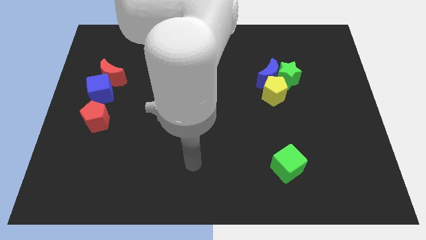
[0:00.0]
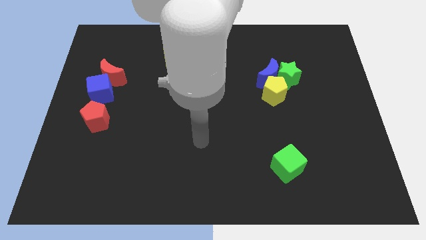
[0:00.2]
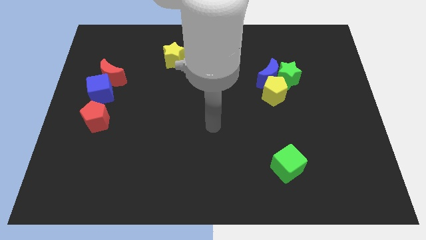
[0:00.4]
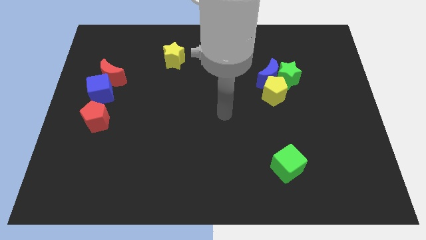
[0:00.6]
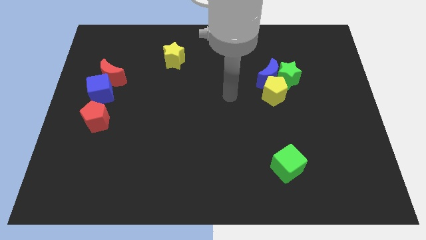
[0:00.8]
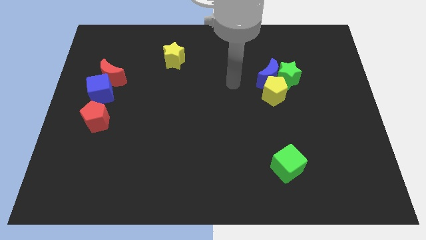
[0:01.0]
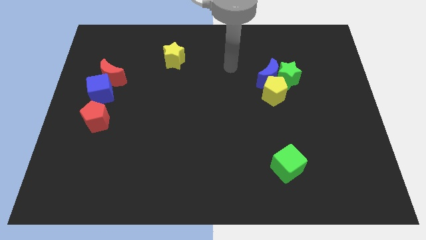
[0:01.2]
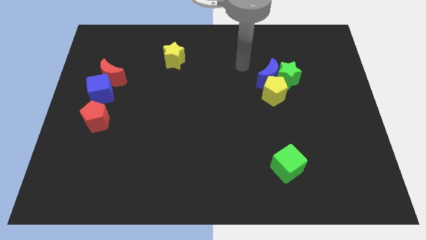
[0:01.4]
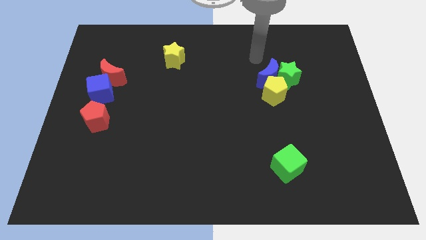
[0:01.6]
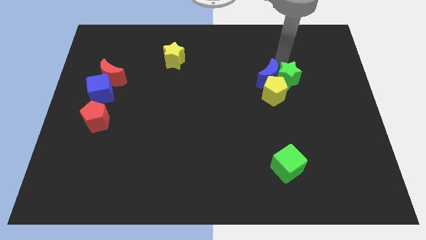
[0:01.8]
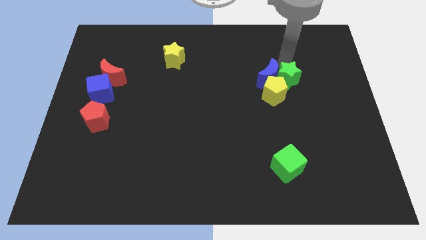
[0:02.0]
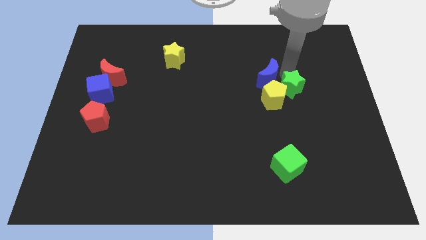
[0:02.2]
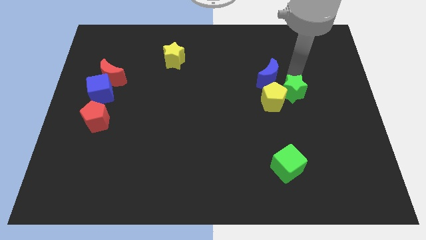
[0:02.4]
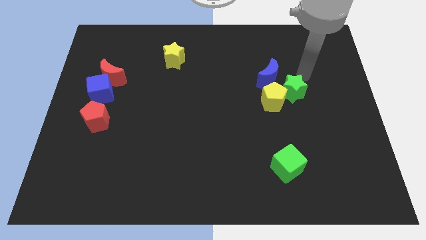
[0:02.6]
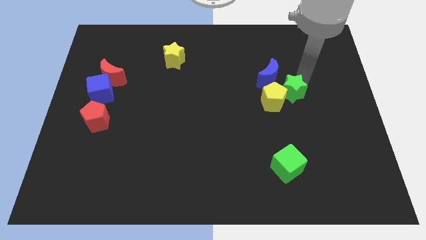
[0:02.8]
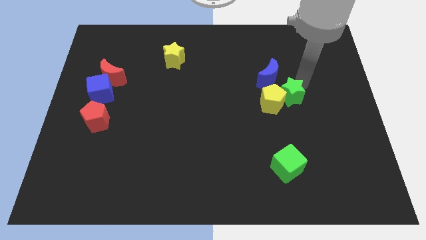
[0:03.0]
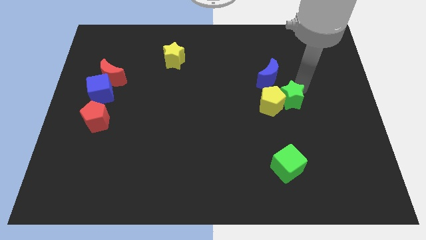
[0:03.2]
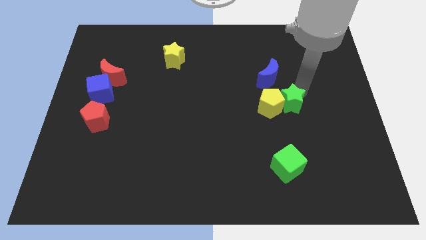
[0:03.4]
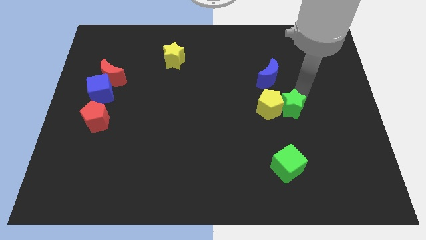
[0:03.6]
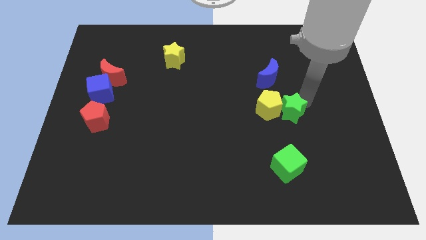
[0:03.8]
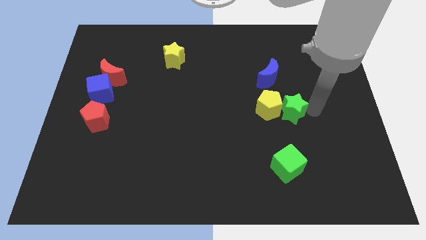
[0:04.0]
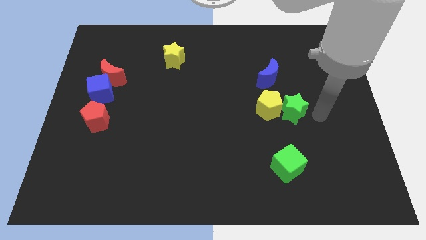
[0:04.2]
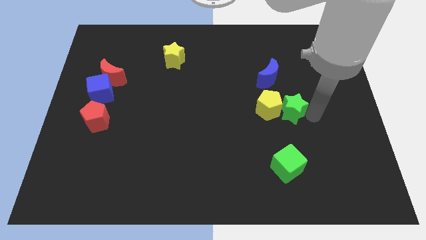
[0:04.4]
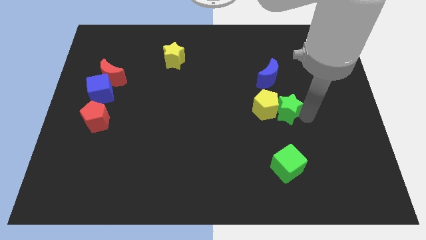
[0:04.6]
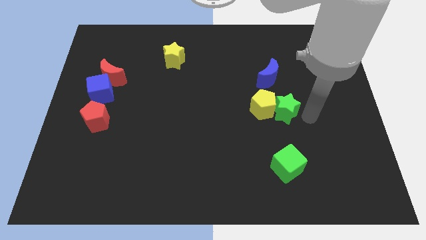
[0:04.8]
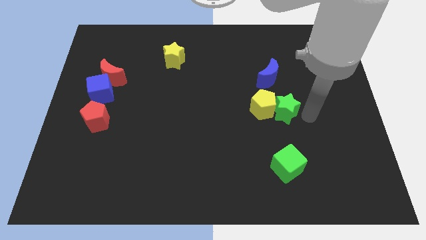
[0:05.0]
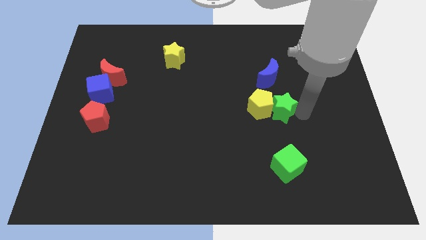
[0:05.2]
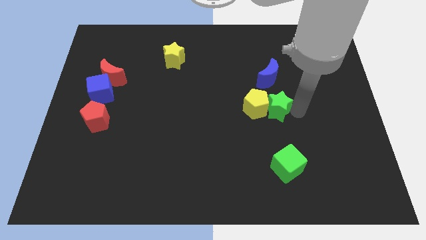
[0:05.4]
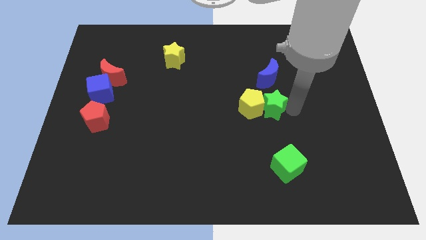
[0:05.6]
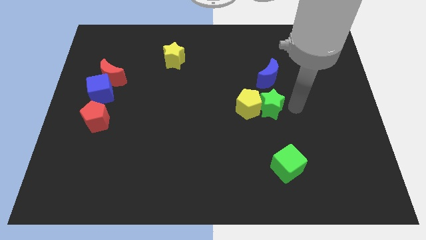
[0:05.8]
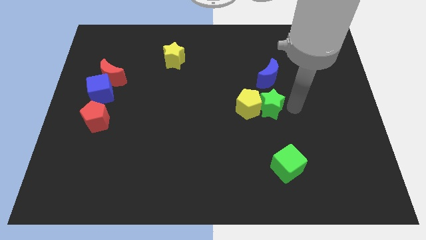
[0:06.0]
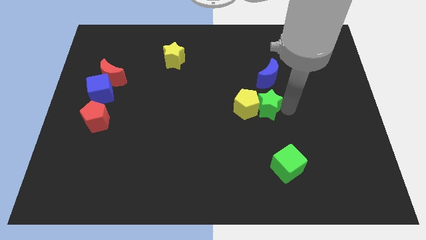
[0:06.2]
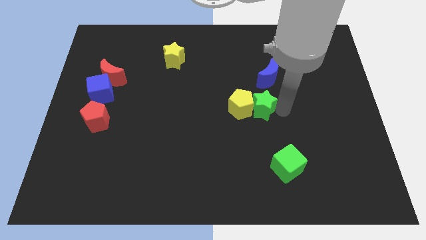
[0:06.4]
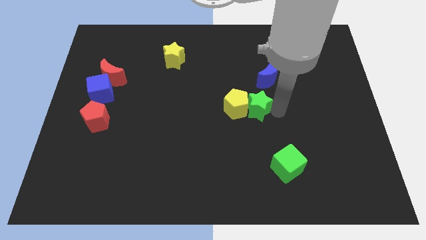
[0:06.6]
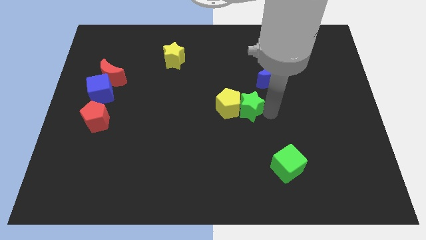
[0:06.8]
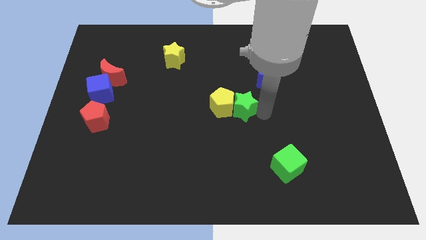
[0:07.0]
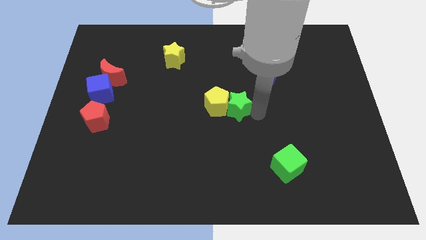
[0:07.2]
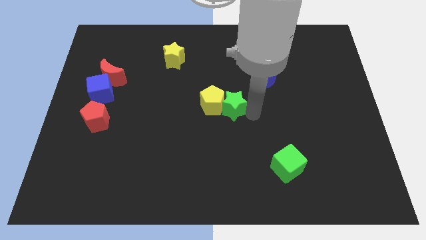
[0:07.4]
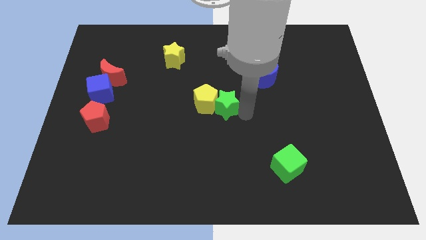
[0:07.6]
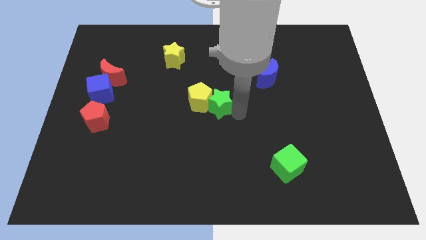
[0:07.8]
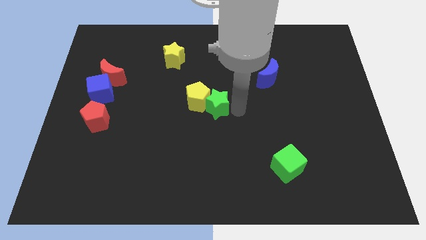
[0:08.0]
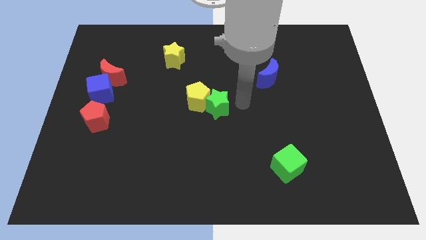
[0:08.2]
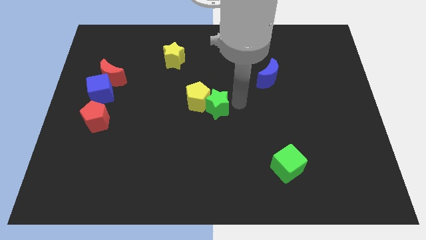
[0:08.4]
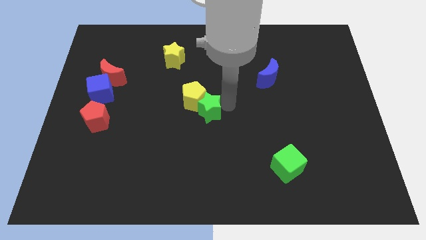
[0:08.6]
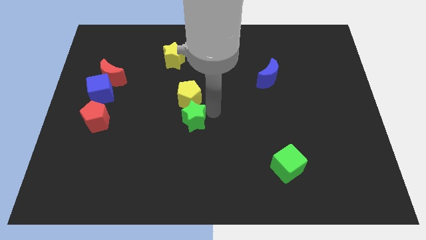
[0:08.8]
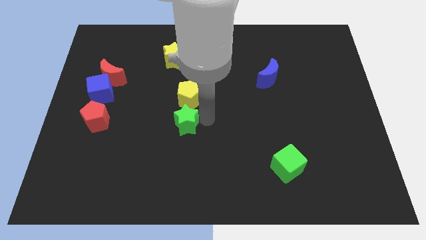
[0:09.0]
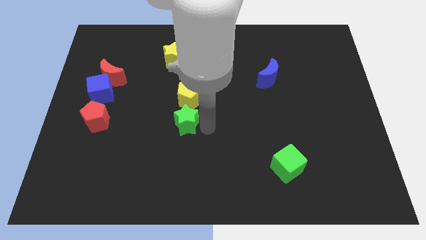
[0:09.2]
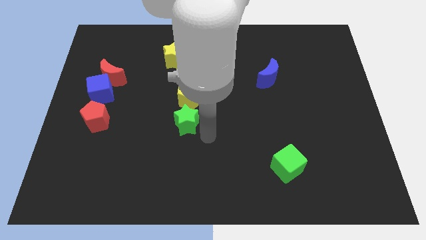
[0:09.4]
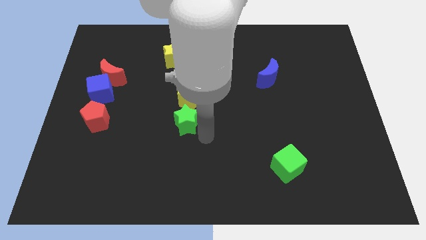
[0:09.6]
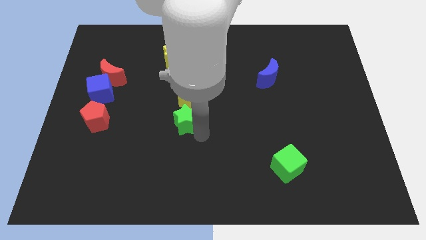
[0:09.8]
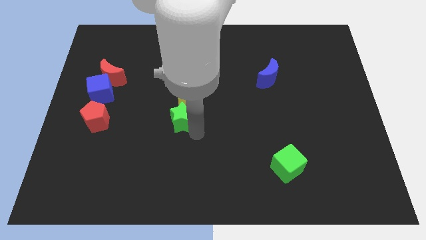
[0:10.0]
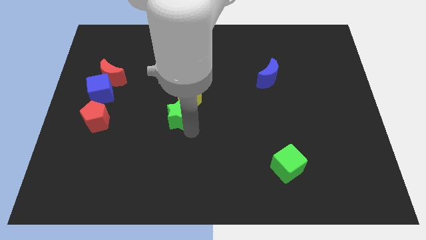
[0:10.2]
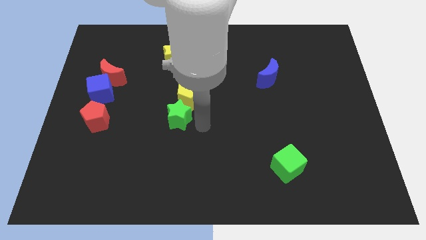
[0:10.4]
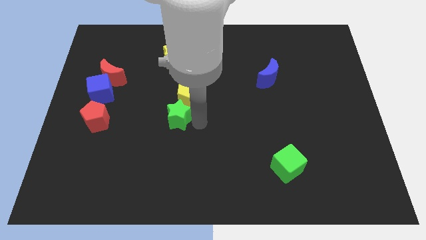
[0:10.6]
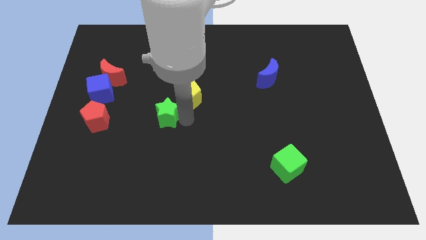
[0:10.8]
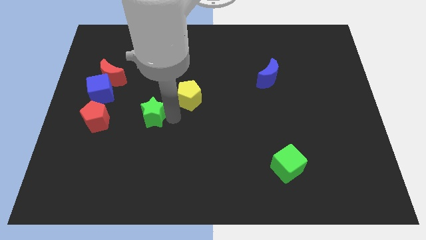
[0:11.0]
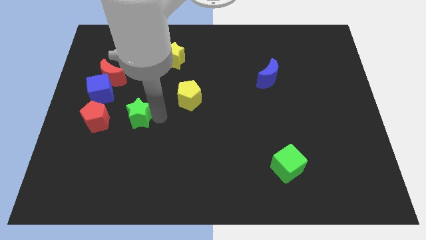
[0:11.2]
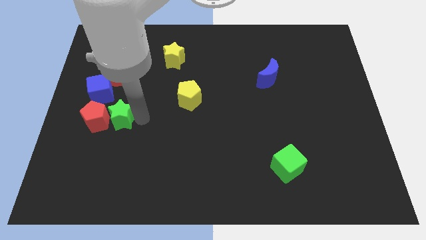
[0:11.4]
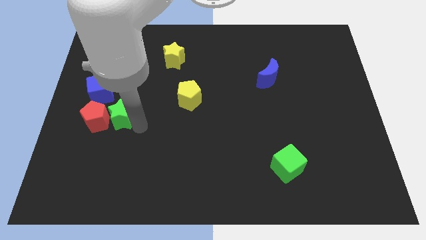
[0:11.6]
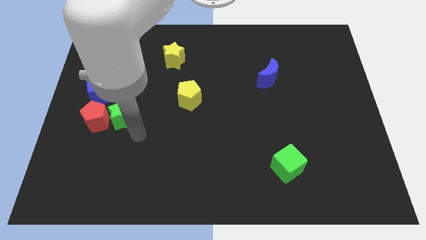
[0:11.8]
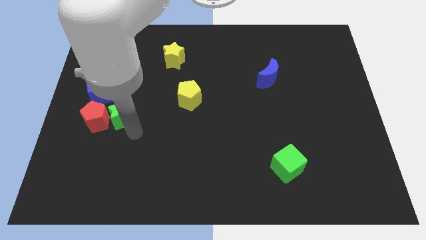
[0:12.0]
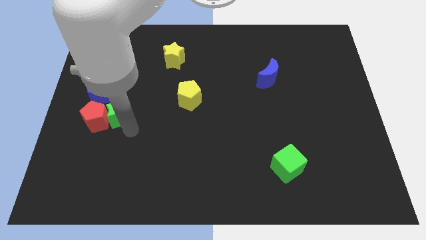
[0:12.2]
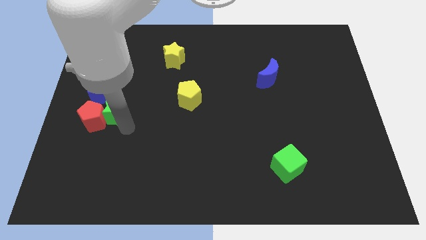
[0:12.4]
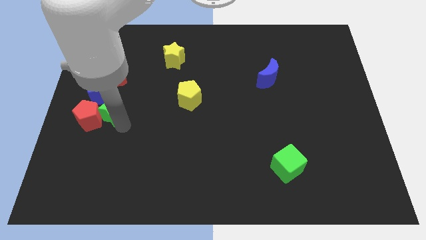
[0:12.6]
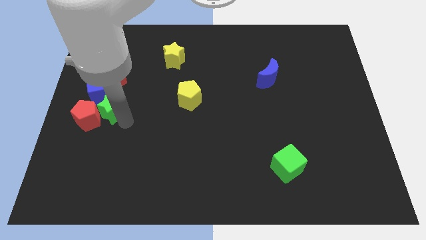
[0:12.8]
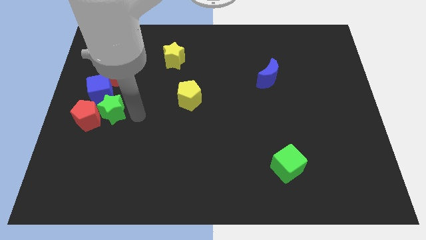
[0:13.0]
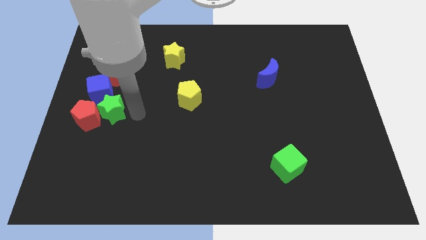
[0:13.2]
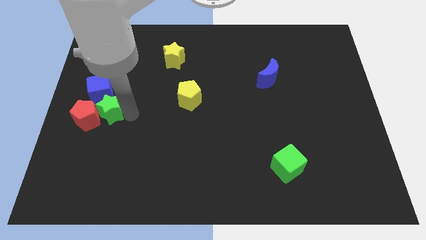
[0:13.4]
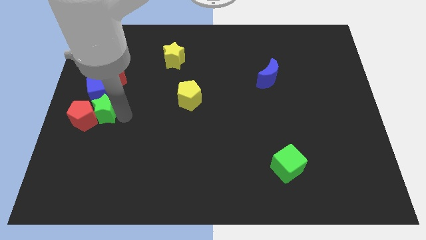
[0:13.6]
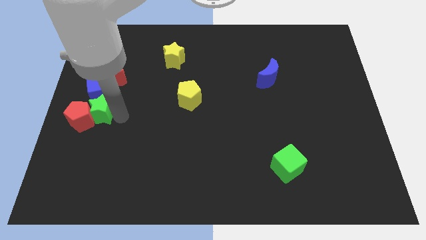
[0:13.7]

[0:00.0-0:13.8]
push the green star to the left side of the board
